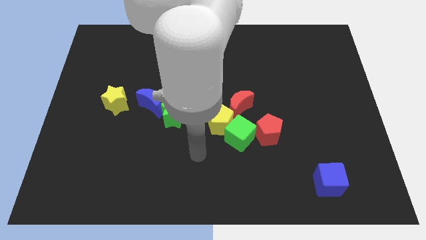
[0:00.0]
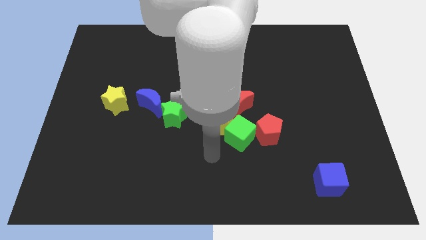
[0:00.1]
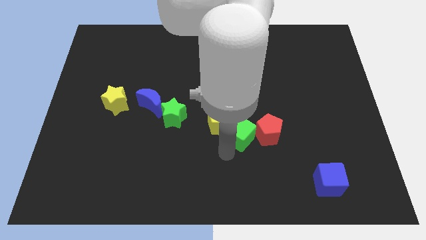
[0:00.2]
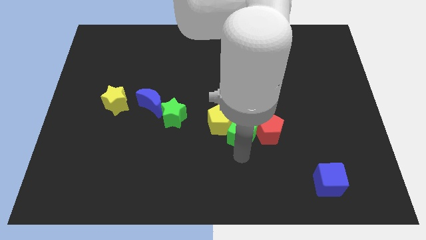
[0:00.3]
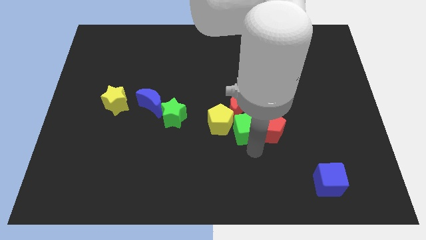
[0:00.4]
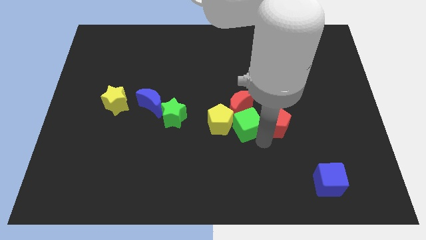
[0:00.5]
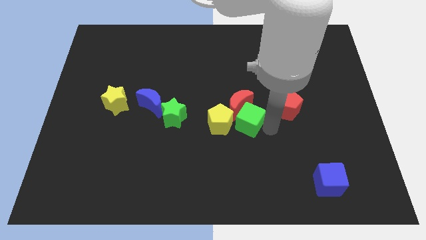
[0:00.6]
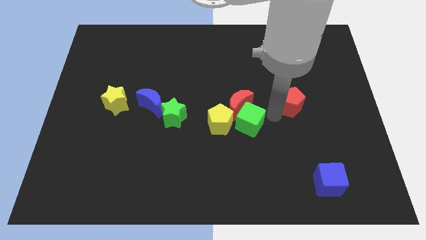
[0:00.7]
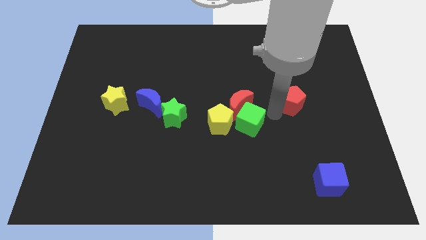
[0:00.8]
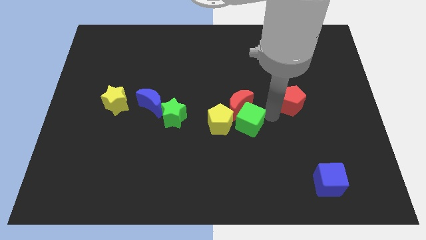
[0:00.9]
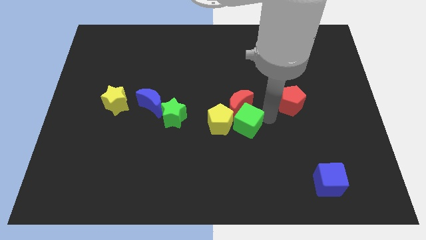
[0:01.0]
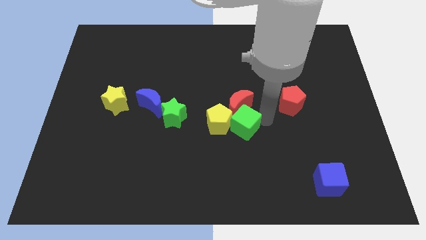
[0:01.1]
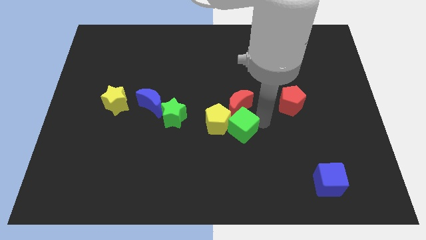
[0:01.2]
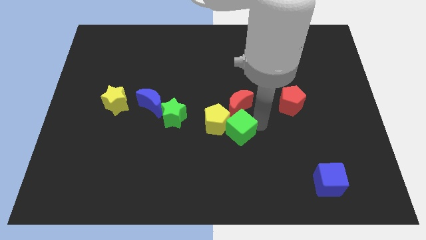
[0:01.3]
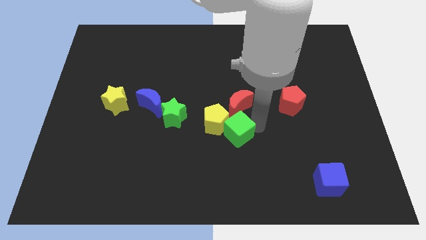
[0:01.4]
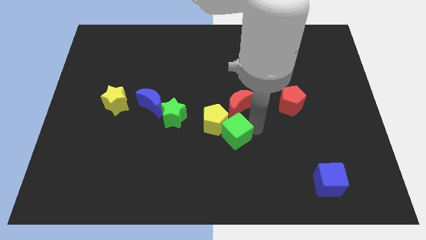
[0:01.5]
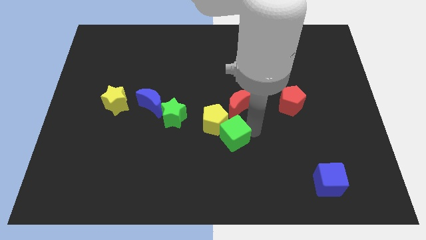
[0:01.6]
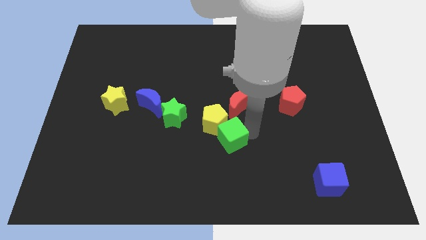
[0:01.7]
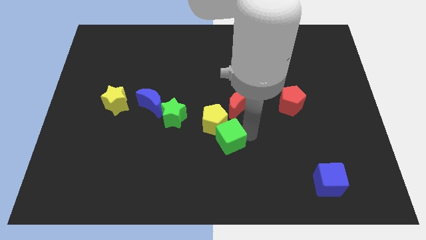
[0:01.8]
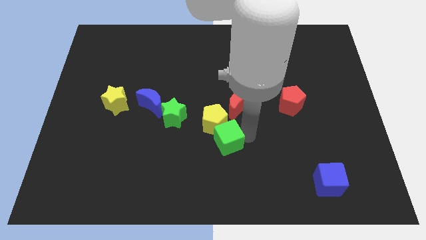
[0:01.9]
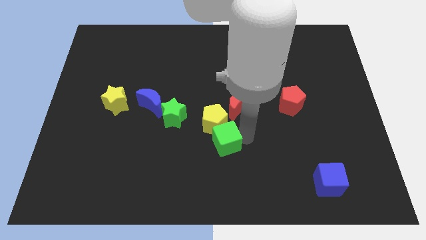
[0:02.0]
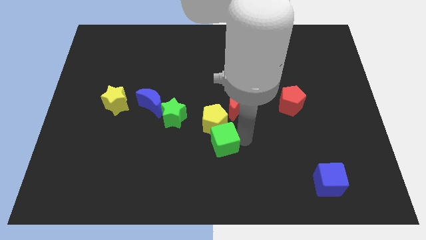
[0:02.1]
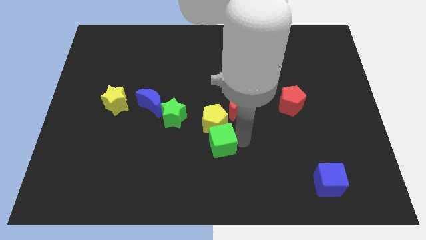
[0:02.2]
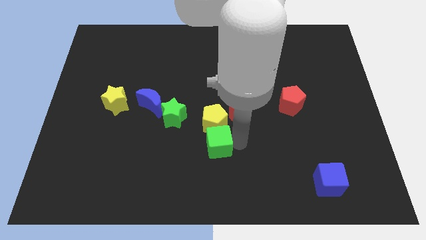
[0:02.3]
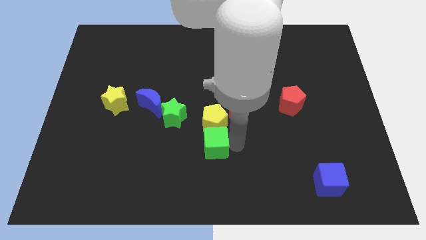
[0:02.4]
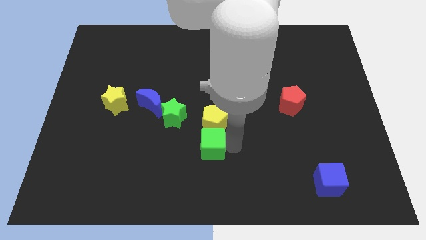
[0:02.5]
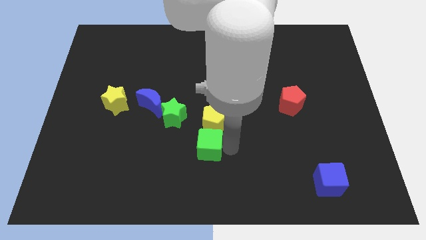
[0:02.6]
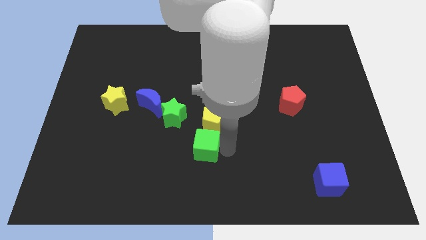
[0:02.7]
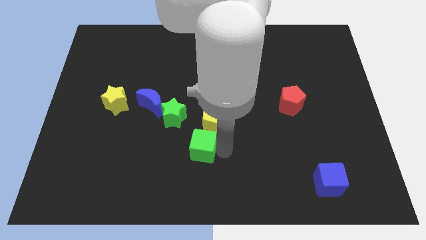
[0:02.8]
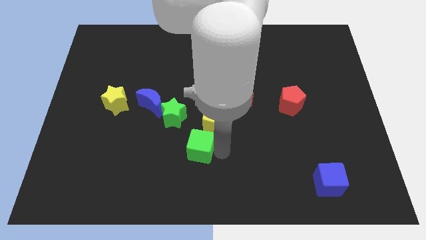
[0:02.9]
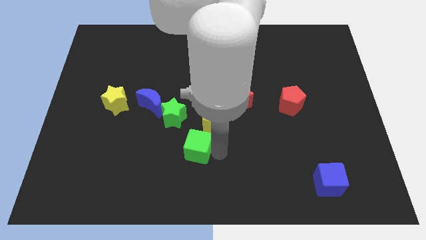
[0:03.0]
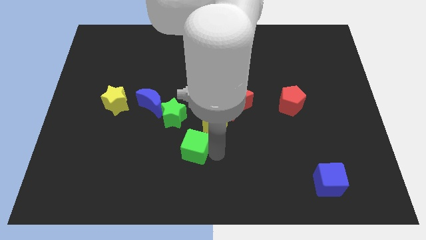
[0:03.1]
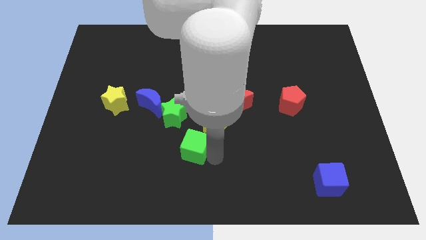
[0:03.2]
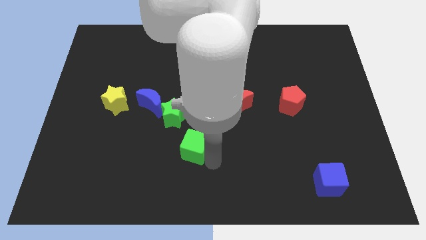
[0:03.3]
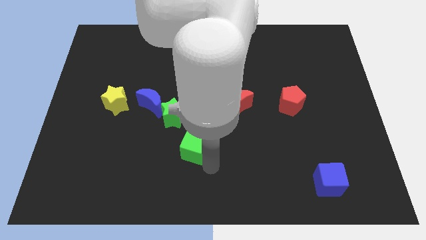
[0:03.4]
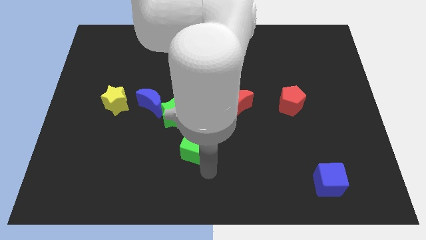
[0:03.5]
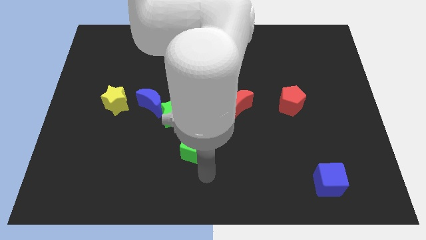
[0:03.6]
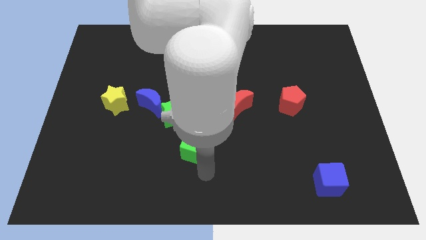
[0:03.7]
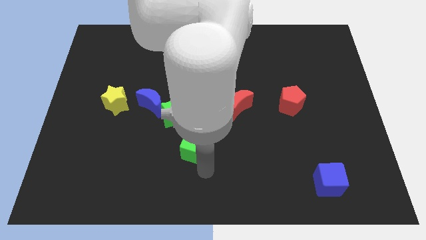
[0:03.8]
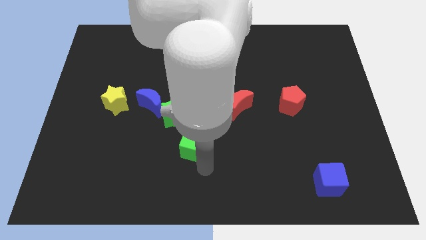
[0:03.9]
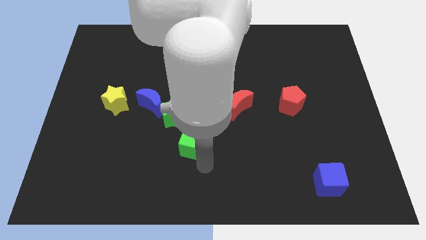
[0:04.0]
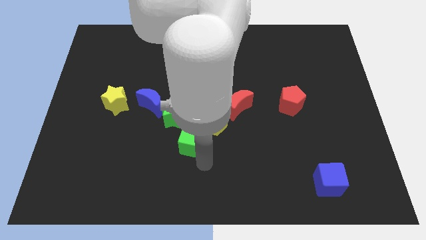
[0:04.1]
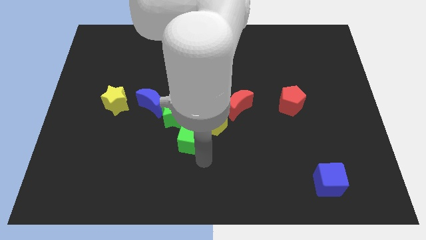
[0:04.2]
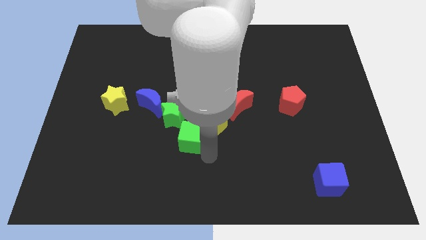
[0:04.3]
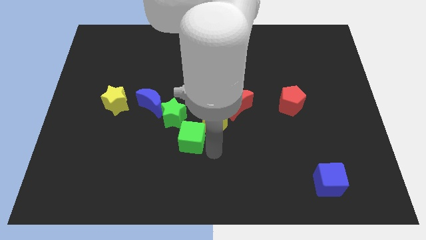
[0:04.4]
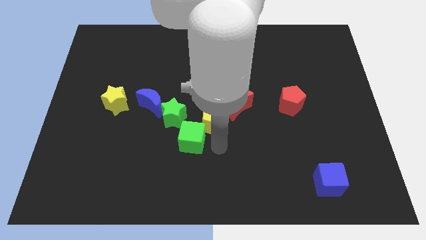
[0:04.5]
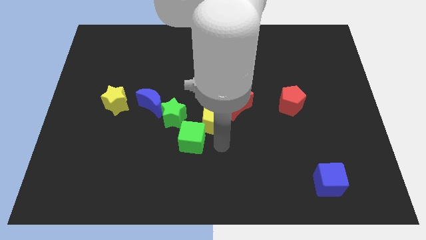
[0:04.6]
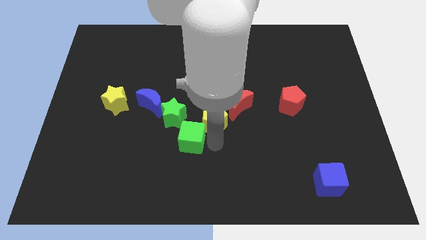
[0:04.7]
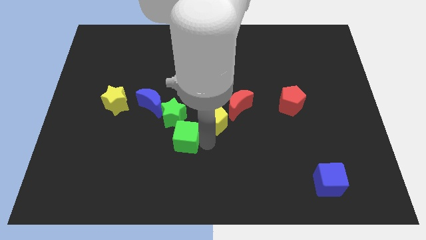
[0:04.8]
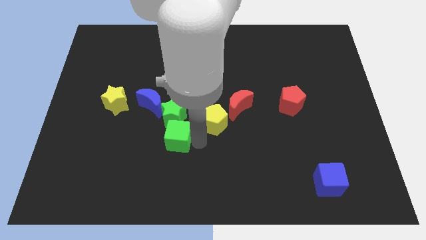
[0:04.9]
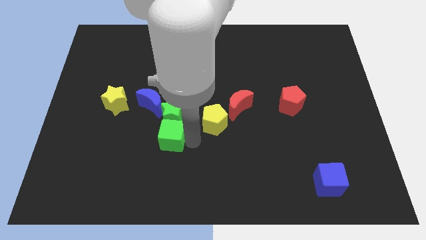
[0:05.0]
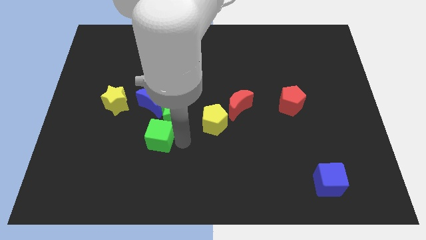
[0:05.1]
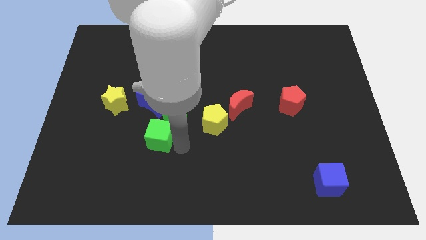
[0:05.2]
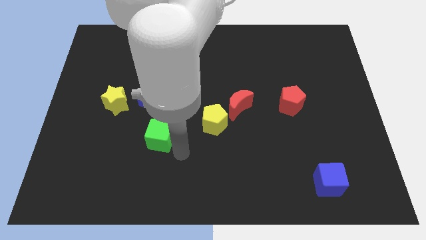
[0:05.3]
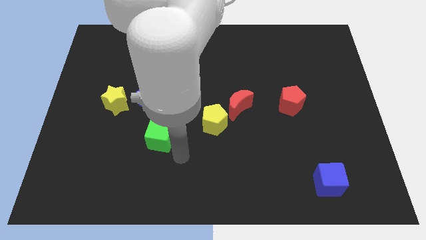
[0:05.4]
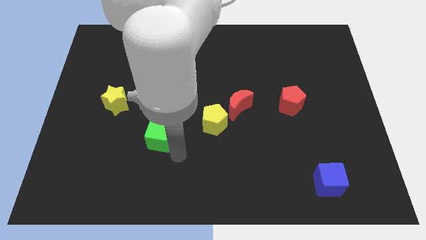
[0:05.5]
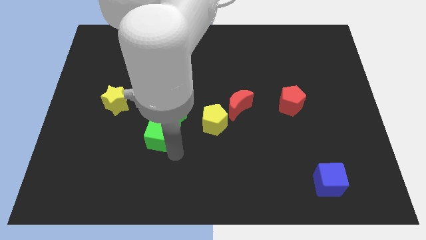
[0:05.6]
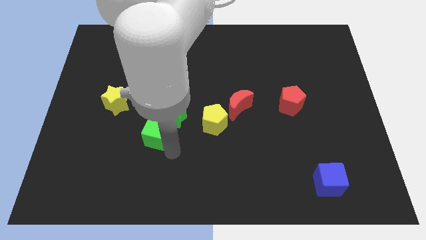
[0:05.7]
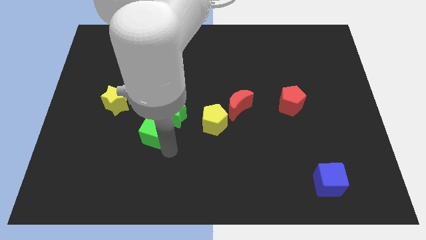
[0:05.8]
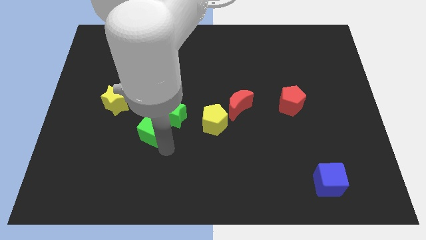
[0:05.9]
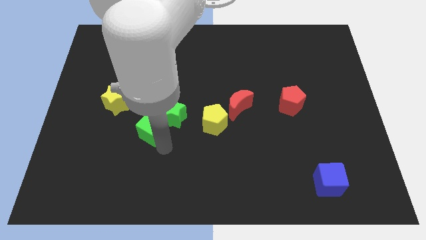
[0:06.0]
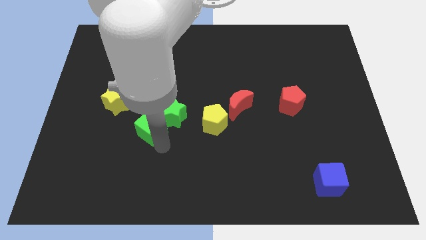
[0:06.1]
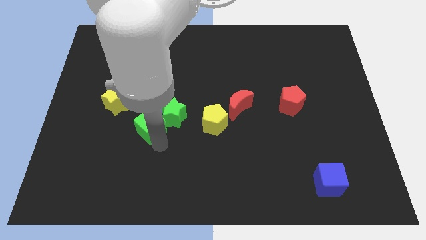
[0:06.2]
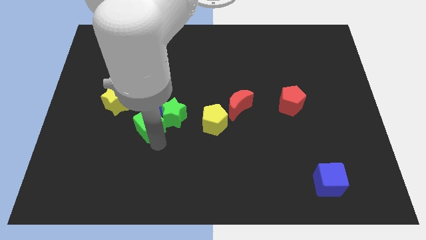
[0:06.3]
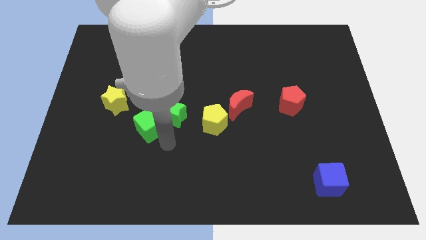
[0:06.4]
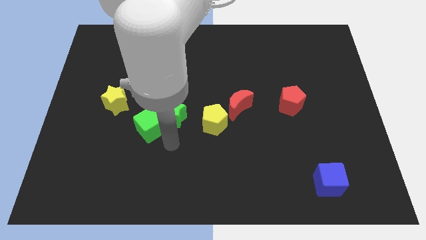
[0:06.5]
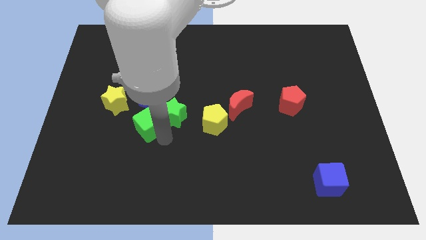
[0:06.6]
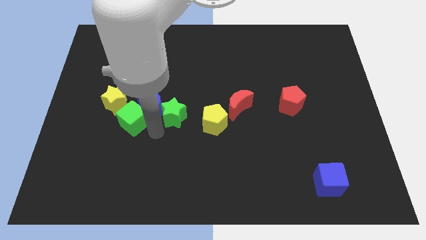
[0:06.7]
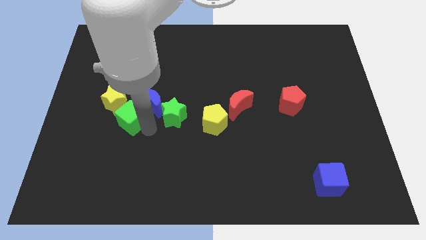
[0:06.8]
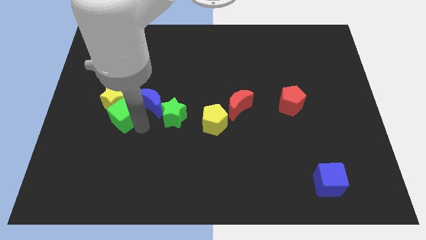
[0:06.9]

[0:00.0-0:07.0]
move the green cube close to the yellow star

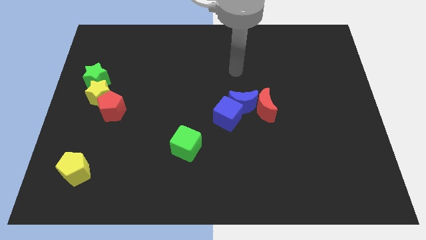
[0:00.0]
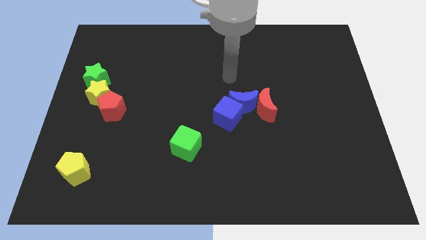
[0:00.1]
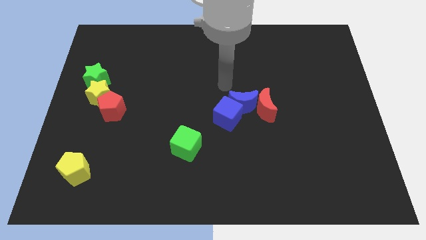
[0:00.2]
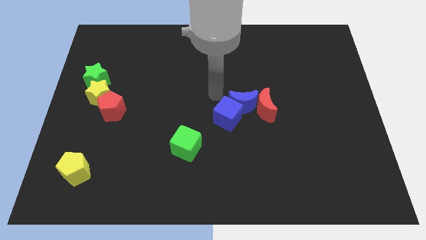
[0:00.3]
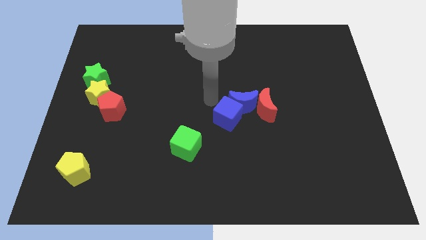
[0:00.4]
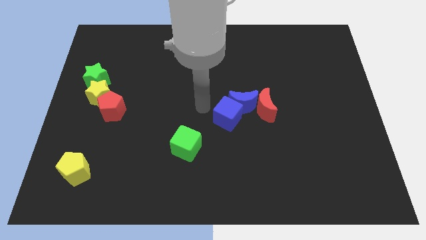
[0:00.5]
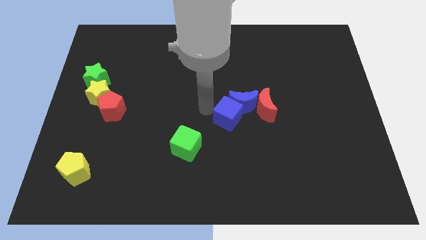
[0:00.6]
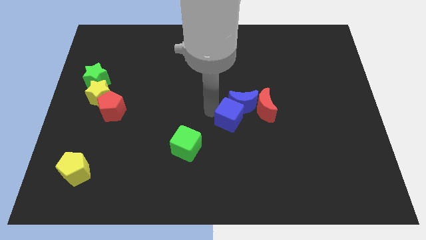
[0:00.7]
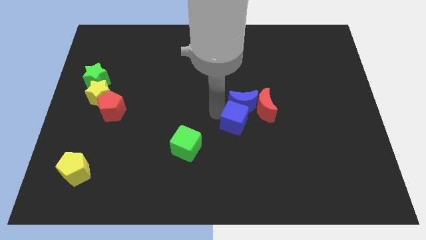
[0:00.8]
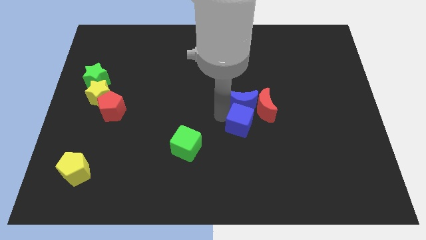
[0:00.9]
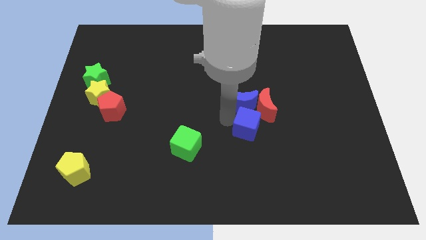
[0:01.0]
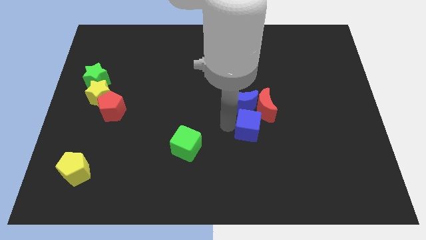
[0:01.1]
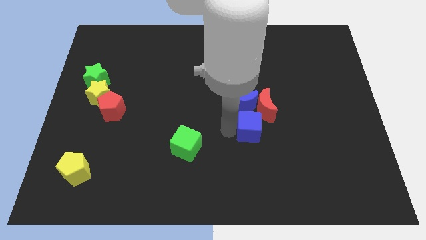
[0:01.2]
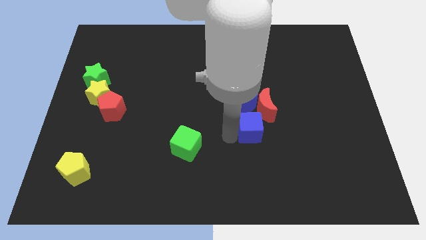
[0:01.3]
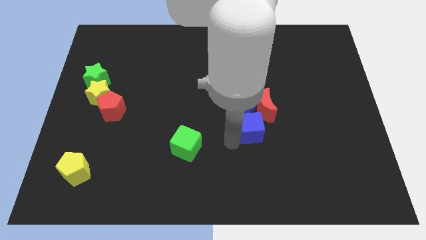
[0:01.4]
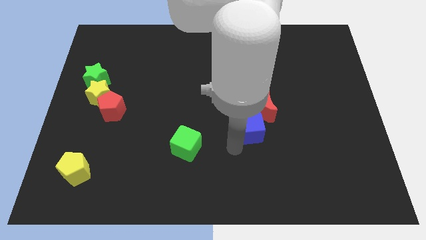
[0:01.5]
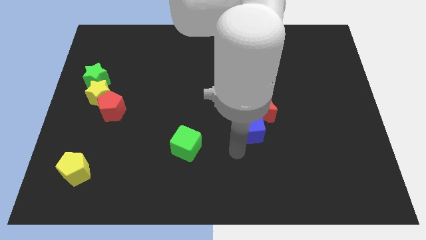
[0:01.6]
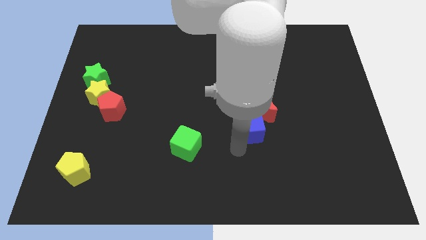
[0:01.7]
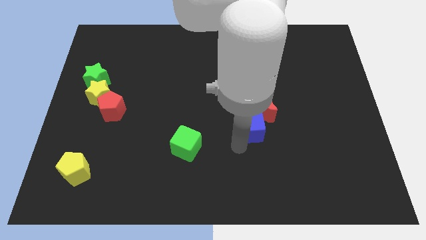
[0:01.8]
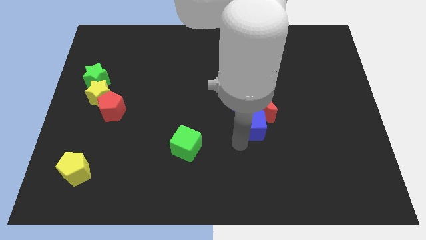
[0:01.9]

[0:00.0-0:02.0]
move the blue cube next to the red moon
